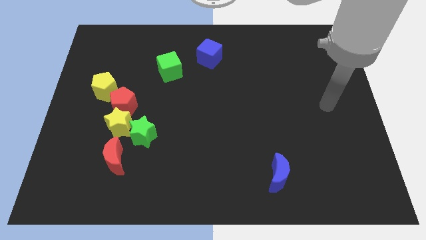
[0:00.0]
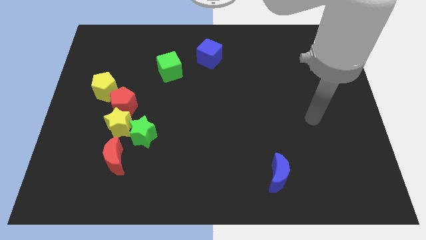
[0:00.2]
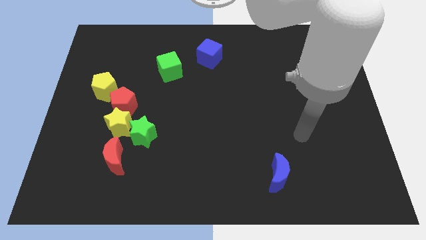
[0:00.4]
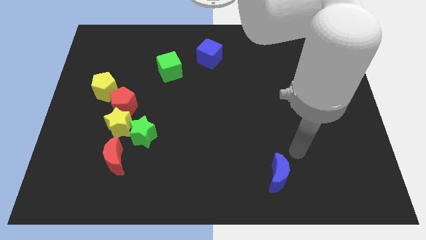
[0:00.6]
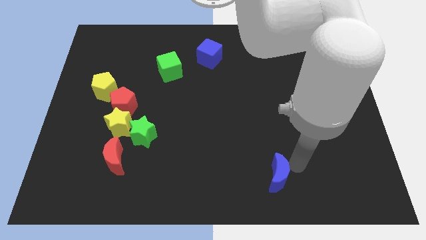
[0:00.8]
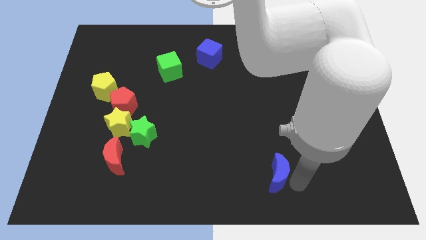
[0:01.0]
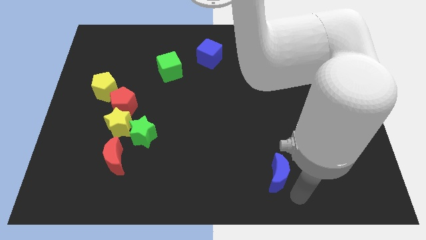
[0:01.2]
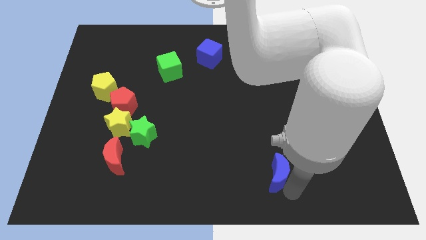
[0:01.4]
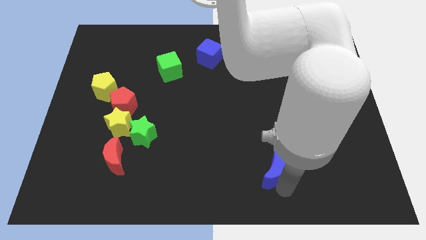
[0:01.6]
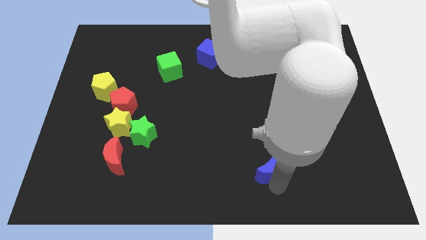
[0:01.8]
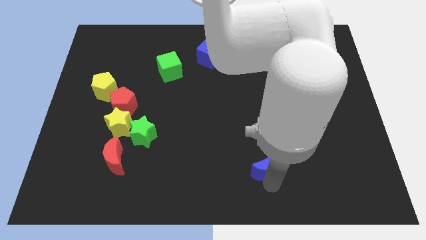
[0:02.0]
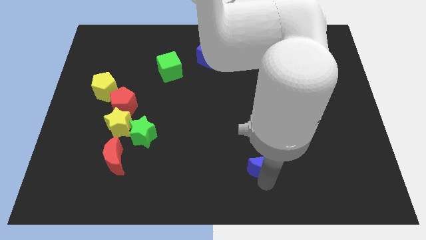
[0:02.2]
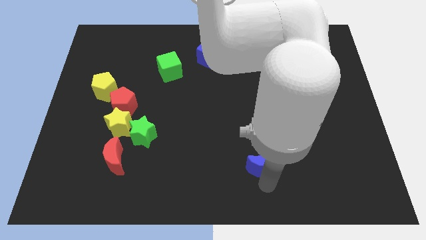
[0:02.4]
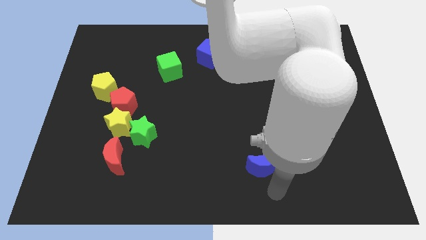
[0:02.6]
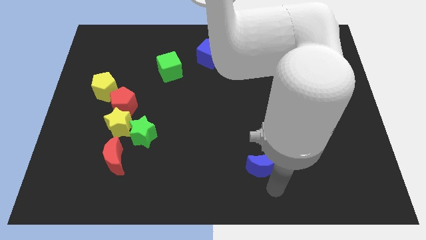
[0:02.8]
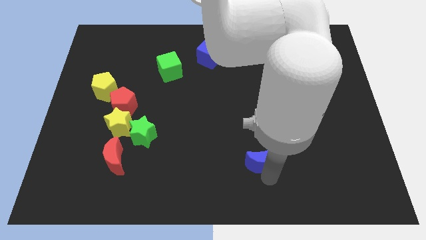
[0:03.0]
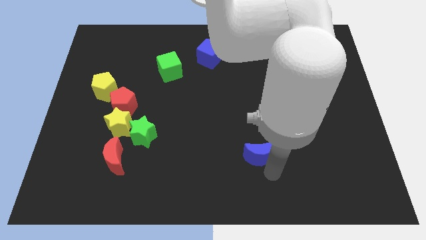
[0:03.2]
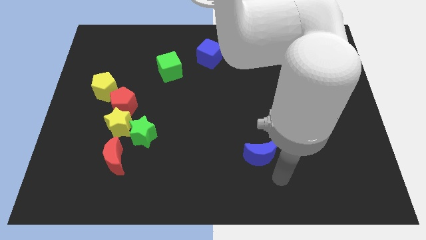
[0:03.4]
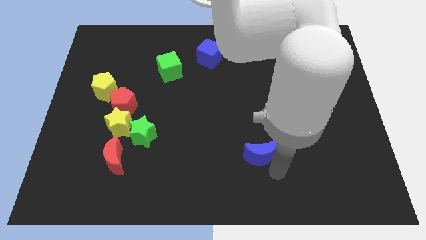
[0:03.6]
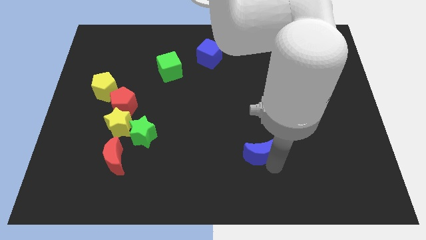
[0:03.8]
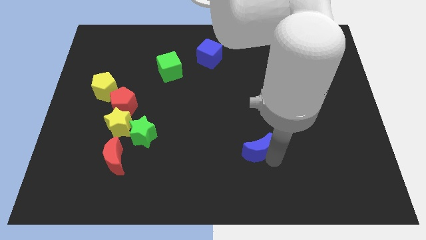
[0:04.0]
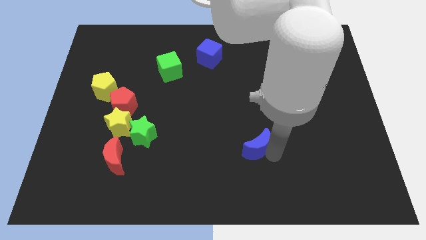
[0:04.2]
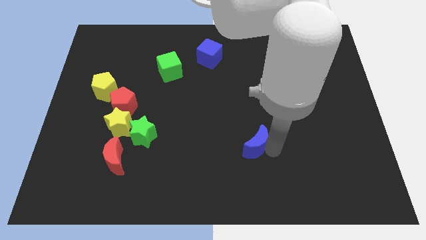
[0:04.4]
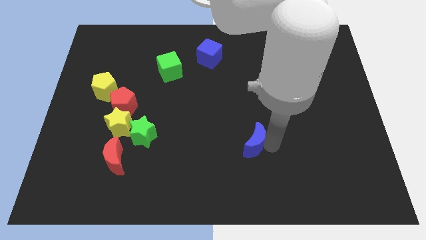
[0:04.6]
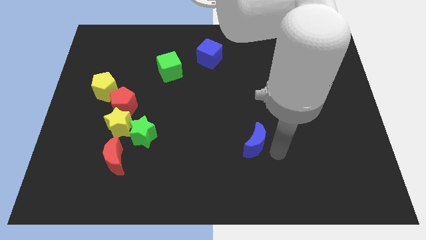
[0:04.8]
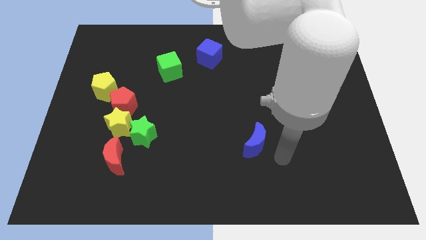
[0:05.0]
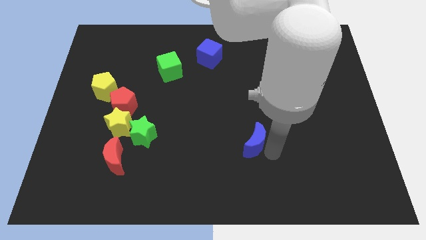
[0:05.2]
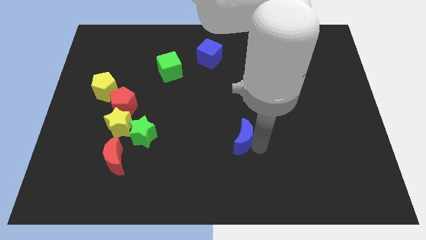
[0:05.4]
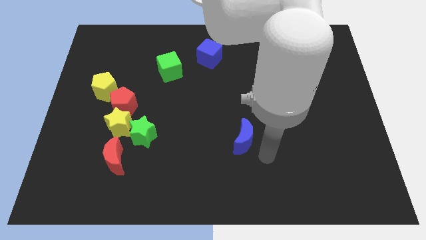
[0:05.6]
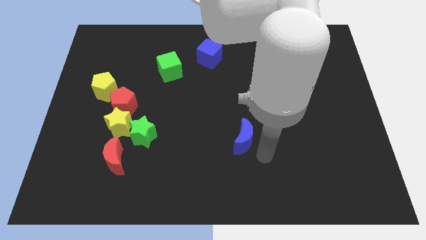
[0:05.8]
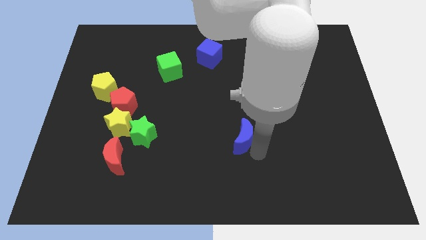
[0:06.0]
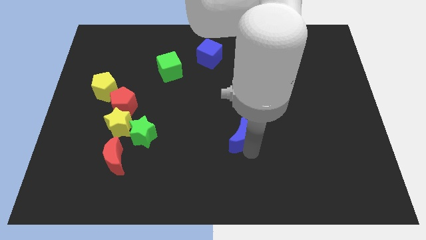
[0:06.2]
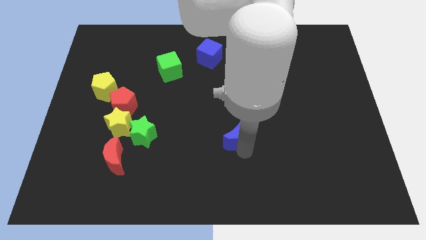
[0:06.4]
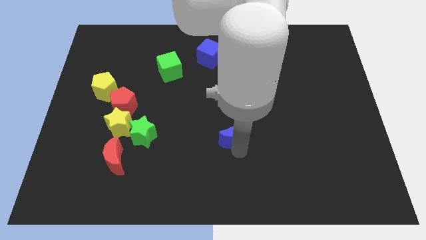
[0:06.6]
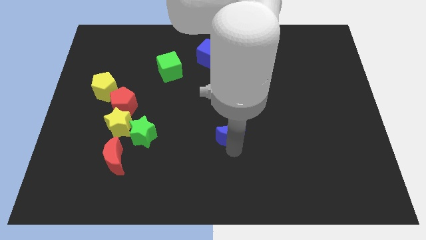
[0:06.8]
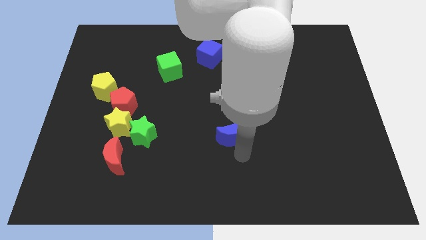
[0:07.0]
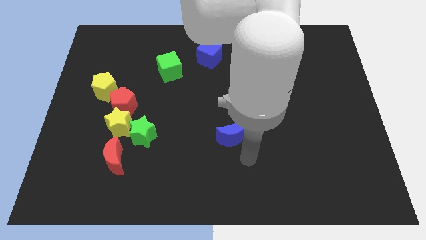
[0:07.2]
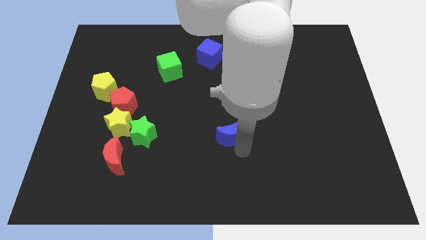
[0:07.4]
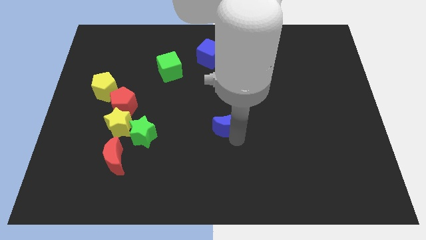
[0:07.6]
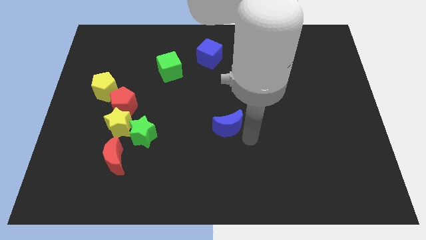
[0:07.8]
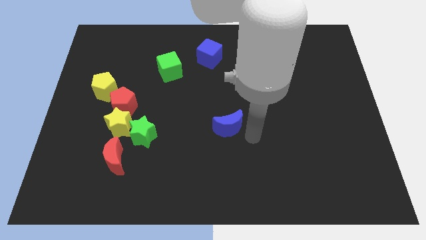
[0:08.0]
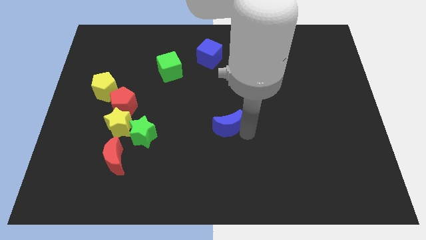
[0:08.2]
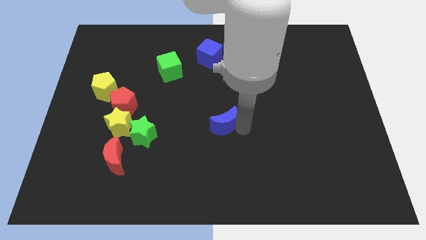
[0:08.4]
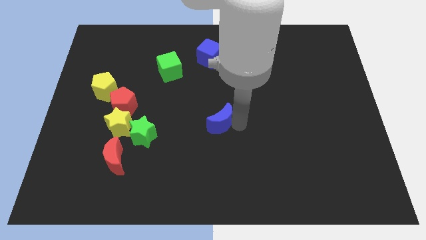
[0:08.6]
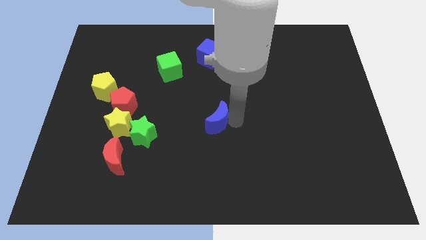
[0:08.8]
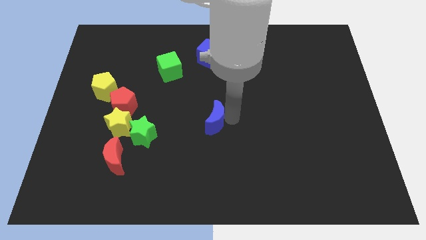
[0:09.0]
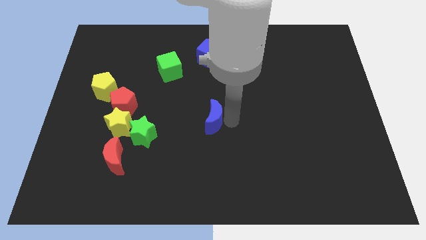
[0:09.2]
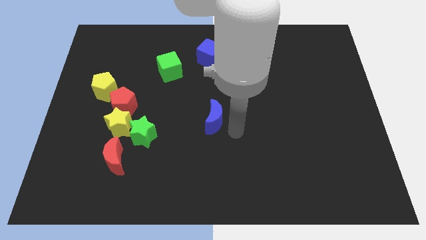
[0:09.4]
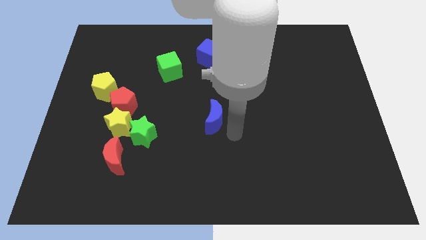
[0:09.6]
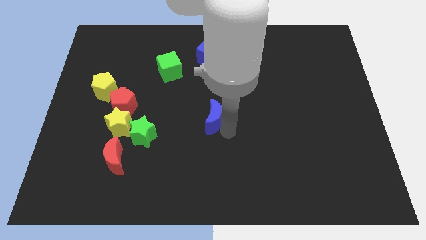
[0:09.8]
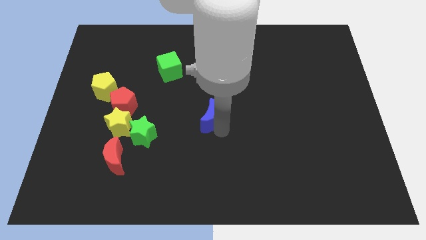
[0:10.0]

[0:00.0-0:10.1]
push the blue moon upwards and then left

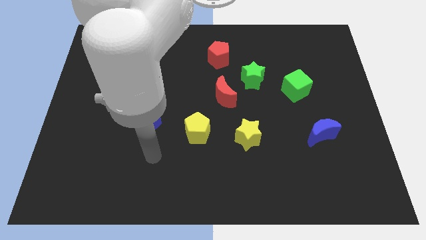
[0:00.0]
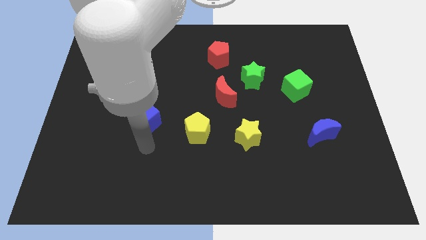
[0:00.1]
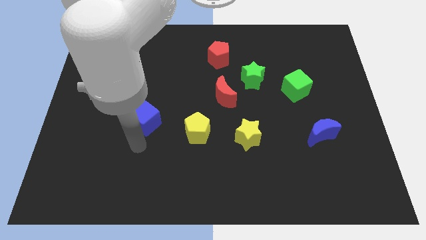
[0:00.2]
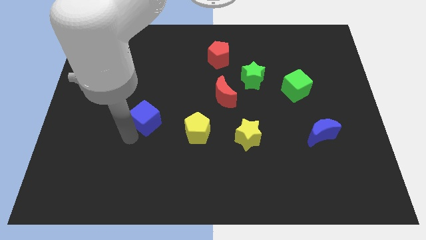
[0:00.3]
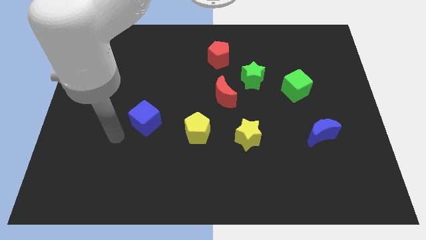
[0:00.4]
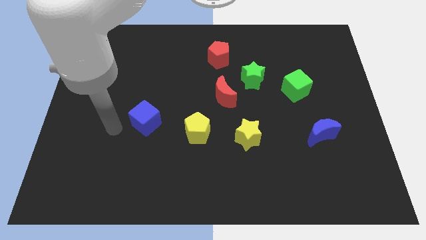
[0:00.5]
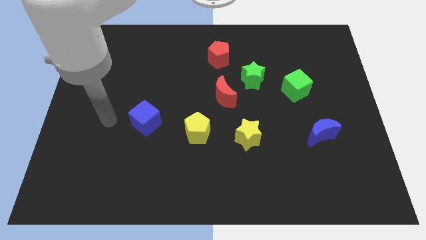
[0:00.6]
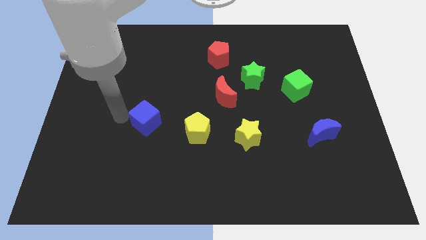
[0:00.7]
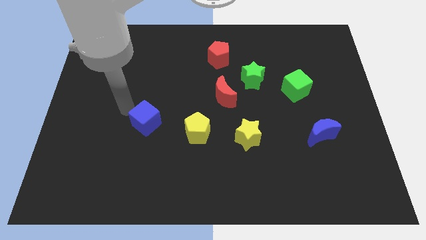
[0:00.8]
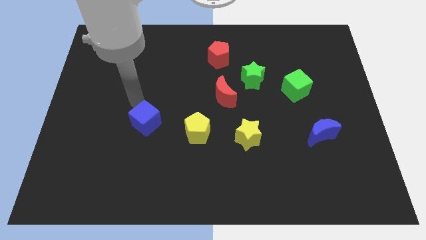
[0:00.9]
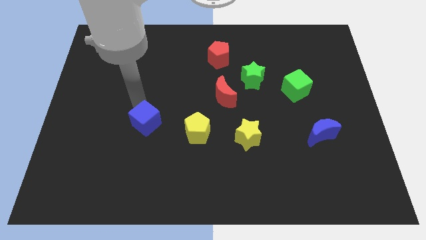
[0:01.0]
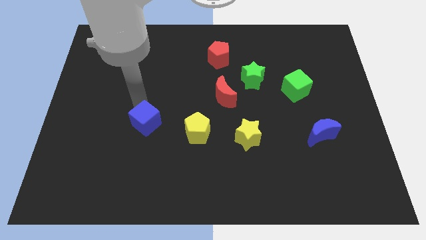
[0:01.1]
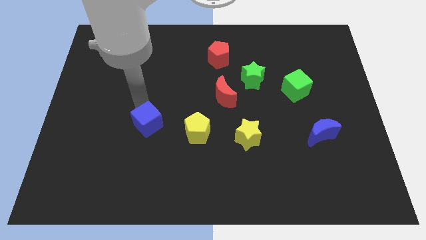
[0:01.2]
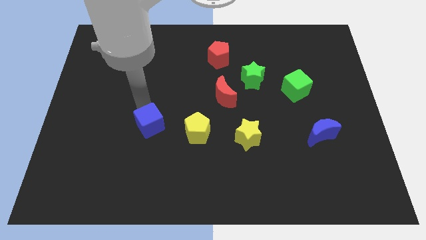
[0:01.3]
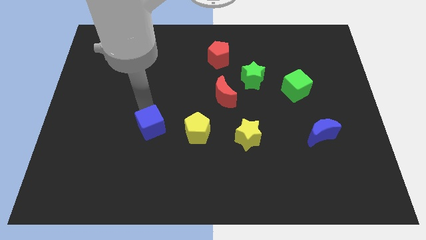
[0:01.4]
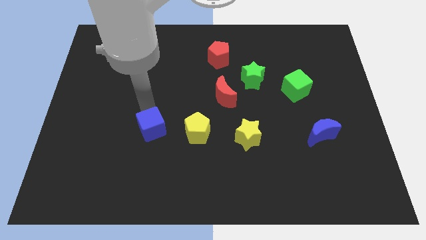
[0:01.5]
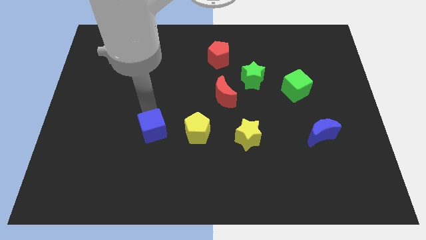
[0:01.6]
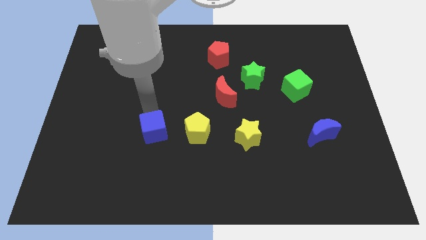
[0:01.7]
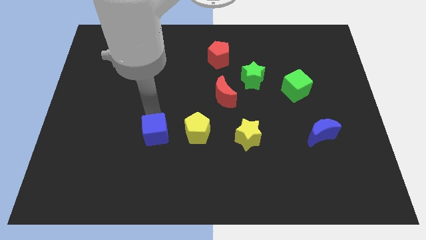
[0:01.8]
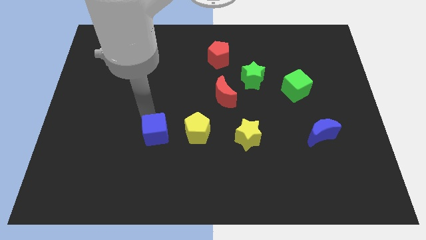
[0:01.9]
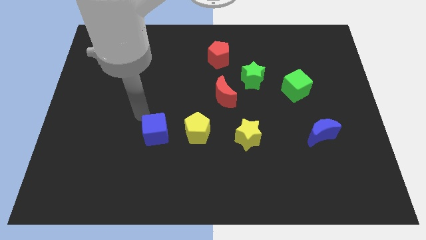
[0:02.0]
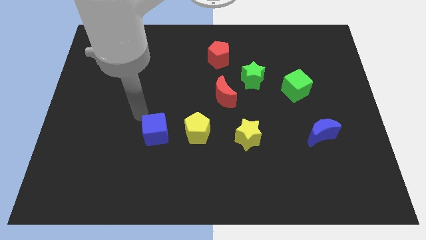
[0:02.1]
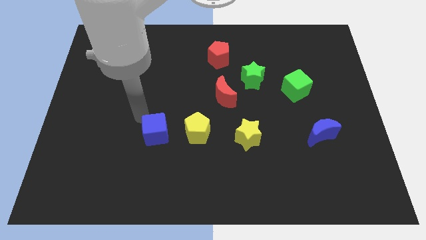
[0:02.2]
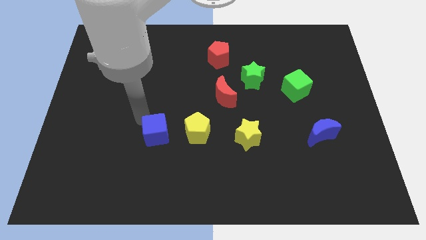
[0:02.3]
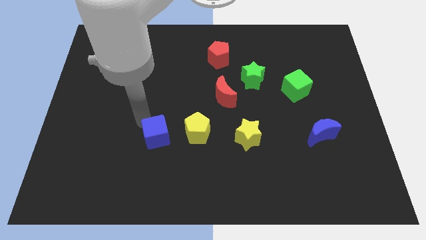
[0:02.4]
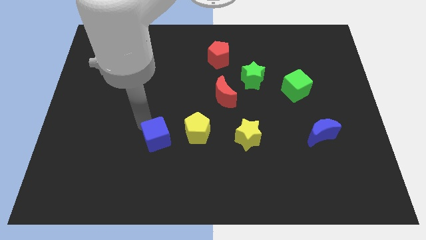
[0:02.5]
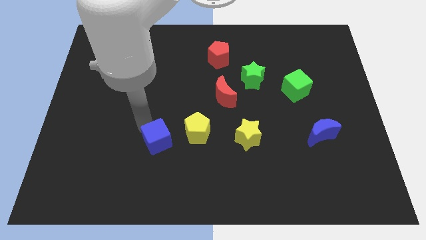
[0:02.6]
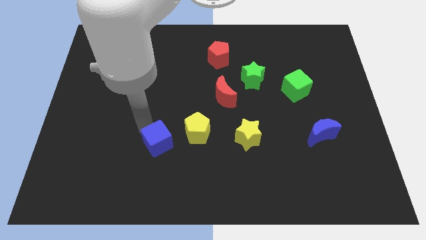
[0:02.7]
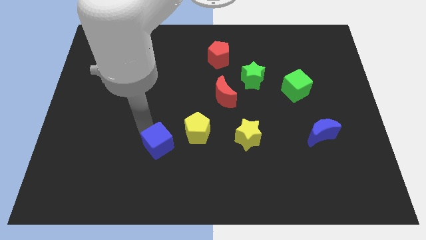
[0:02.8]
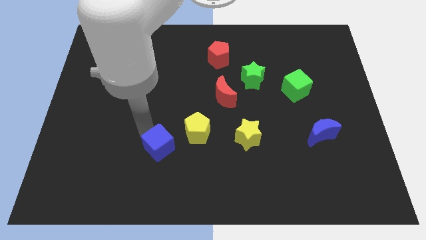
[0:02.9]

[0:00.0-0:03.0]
slide the blue cube diagonally down and to the right a little bit
